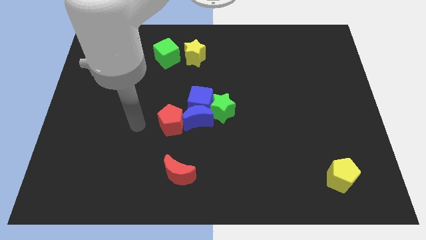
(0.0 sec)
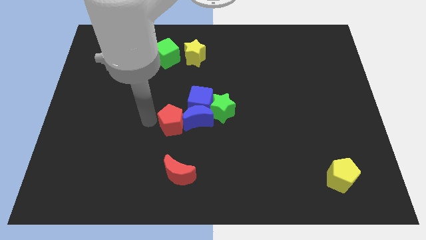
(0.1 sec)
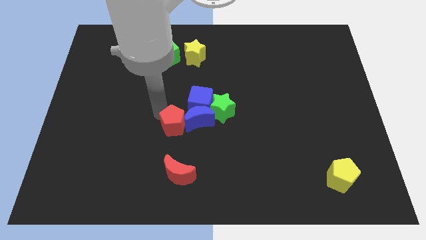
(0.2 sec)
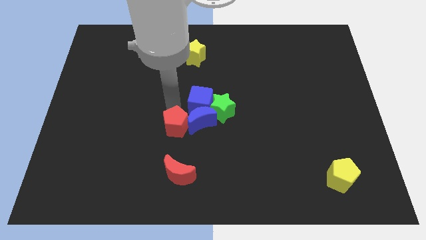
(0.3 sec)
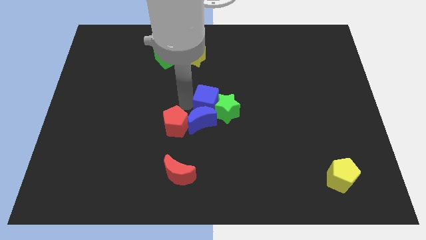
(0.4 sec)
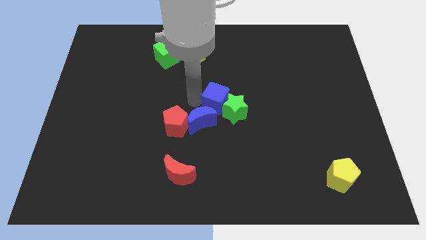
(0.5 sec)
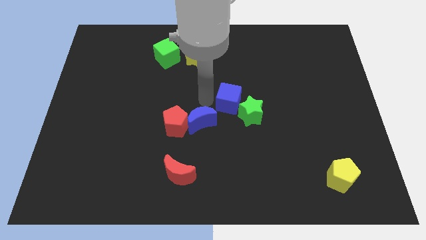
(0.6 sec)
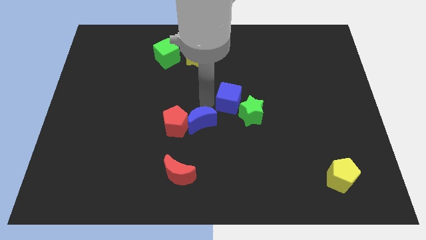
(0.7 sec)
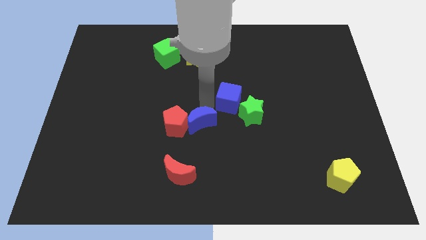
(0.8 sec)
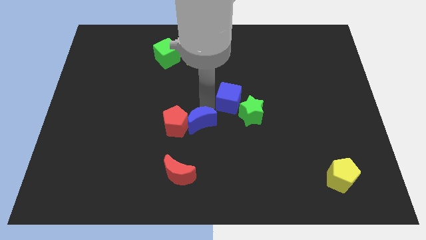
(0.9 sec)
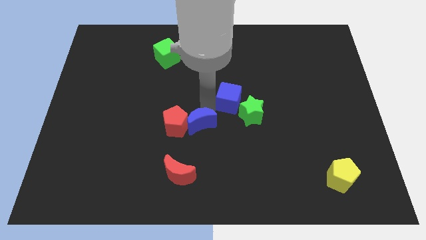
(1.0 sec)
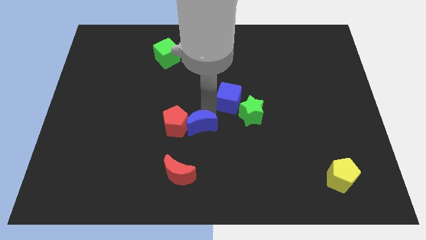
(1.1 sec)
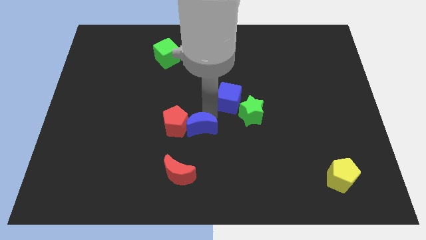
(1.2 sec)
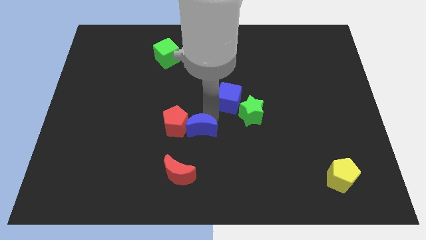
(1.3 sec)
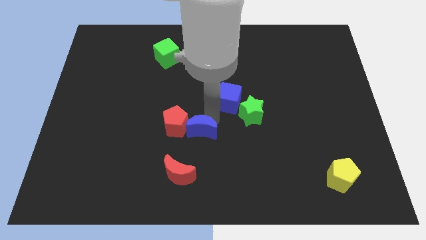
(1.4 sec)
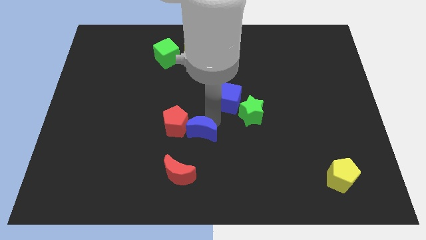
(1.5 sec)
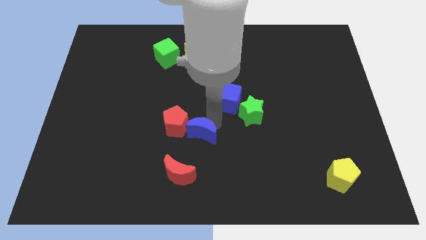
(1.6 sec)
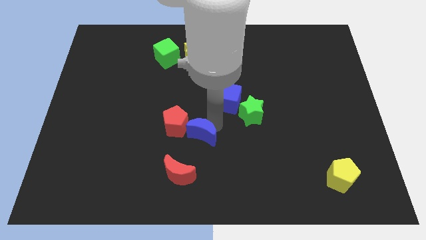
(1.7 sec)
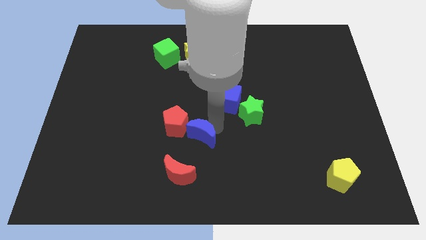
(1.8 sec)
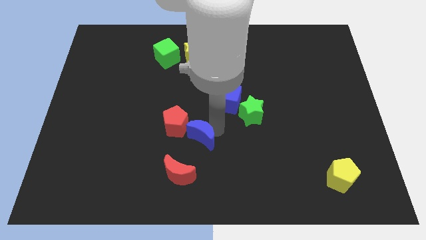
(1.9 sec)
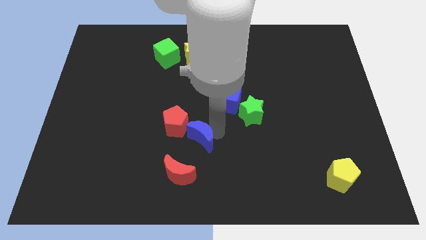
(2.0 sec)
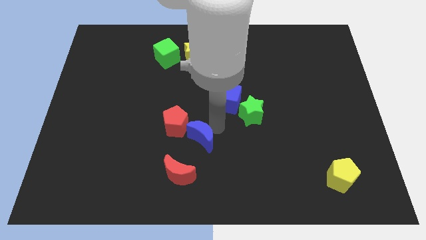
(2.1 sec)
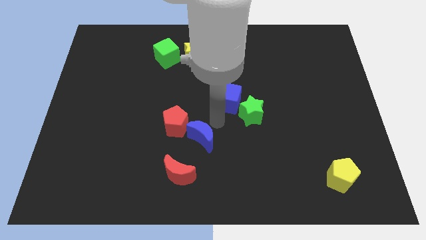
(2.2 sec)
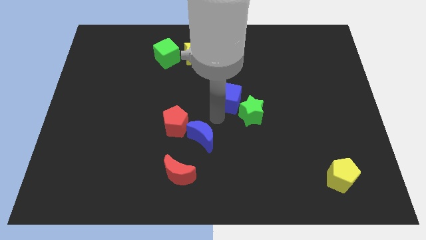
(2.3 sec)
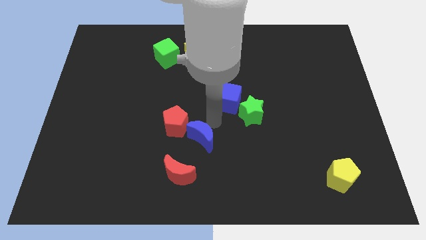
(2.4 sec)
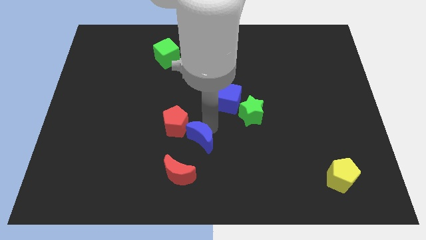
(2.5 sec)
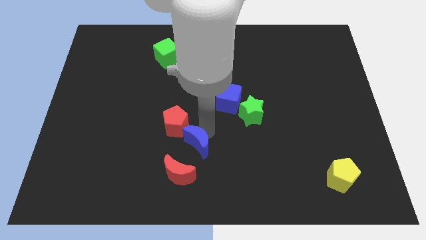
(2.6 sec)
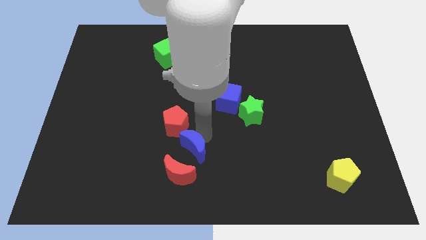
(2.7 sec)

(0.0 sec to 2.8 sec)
separate the blue moon from the group

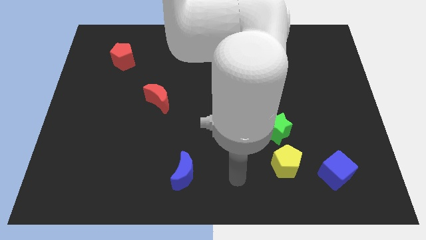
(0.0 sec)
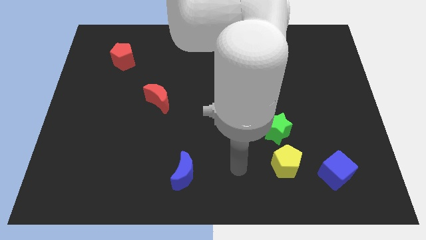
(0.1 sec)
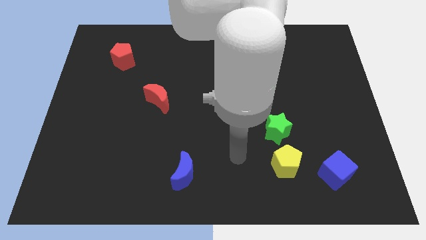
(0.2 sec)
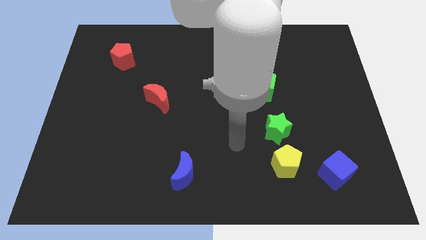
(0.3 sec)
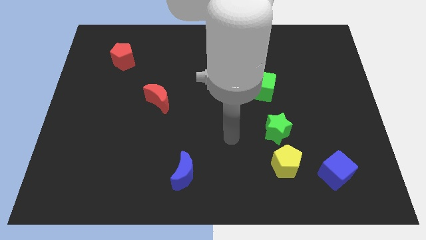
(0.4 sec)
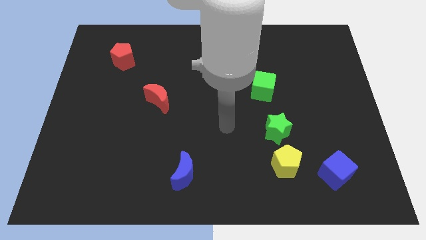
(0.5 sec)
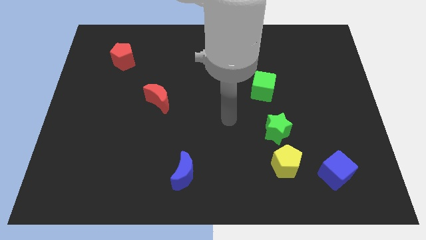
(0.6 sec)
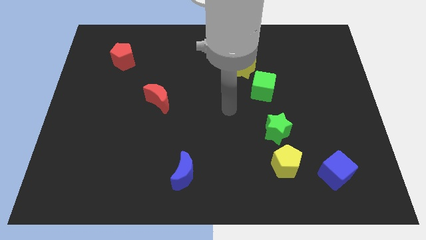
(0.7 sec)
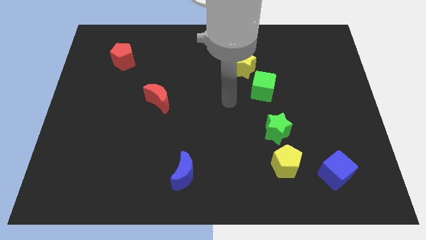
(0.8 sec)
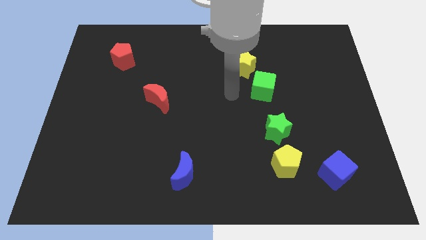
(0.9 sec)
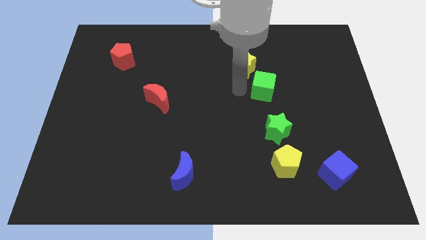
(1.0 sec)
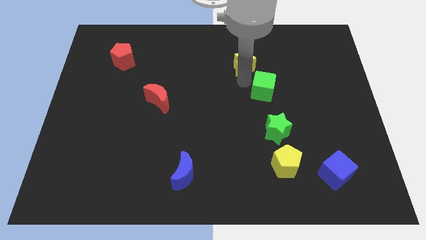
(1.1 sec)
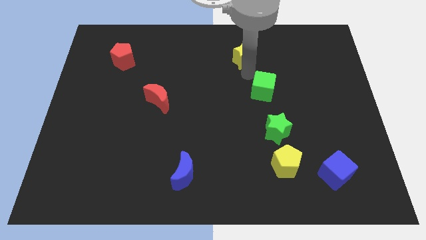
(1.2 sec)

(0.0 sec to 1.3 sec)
pull the green cube apart from the yellow star

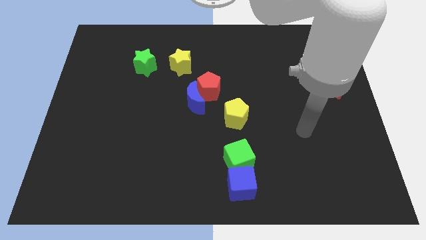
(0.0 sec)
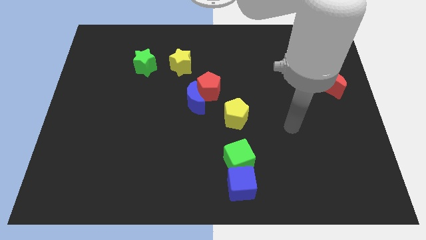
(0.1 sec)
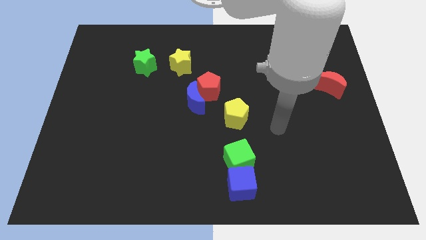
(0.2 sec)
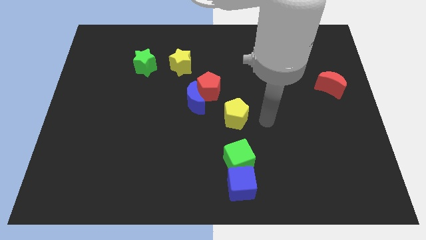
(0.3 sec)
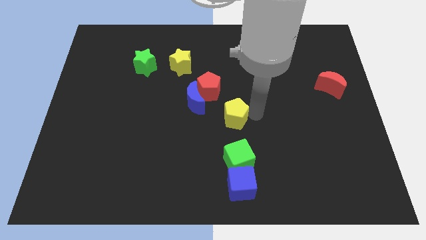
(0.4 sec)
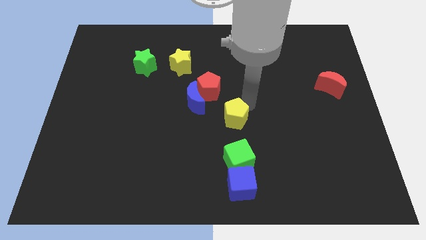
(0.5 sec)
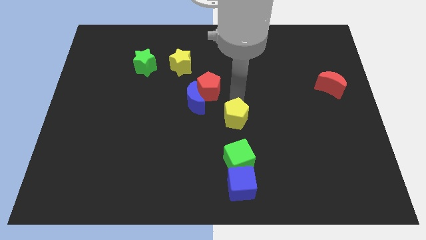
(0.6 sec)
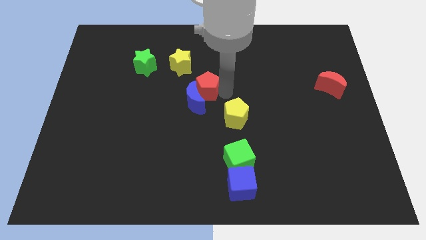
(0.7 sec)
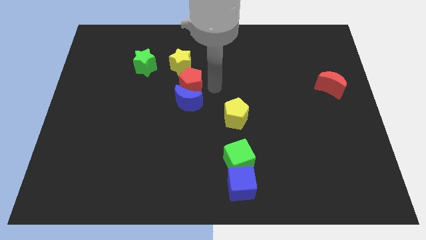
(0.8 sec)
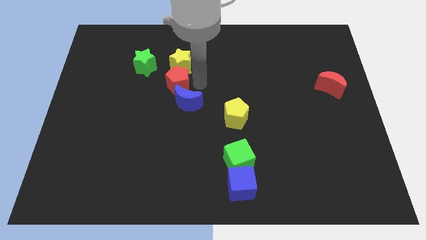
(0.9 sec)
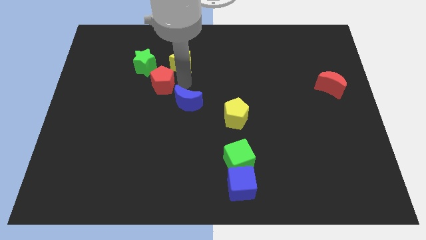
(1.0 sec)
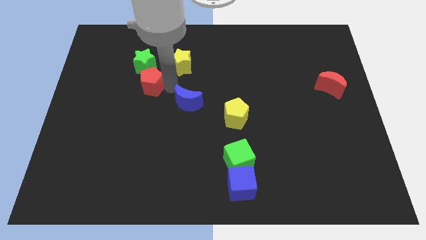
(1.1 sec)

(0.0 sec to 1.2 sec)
move the blue moon away from the red pentagon

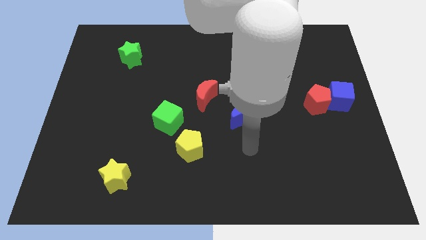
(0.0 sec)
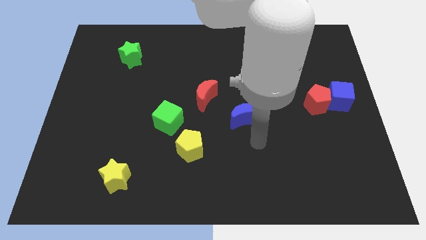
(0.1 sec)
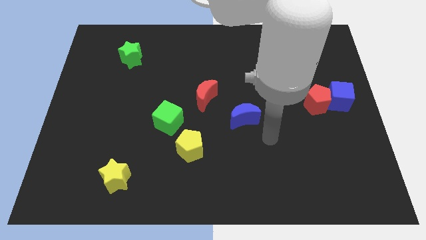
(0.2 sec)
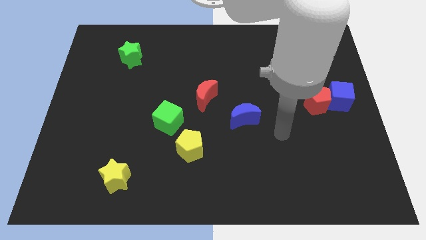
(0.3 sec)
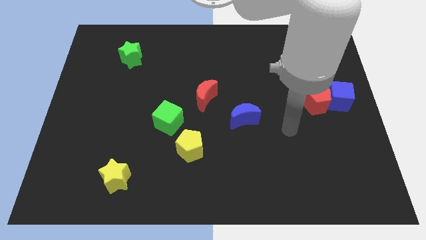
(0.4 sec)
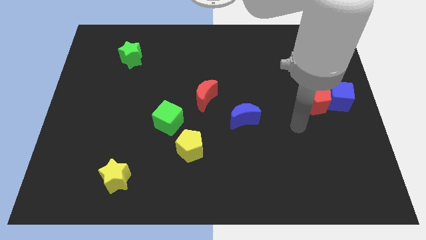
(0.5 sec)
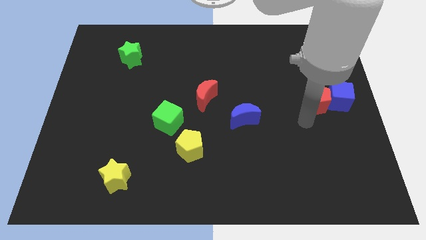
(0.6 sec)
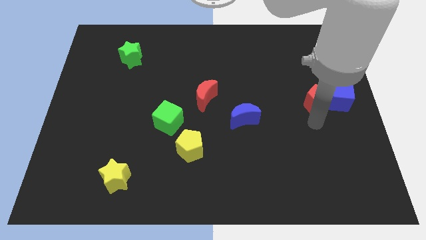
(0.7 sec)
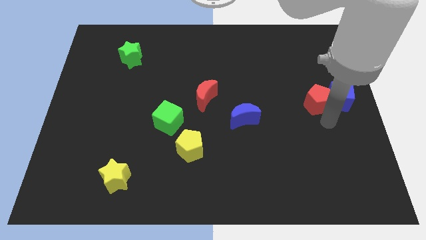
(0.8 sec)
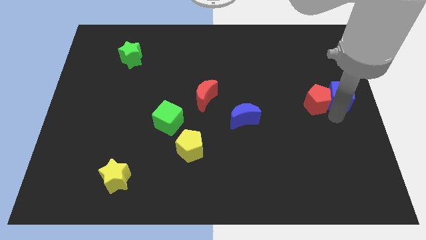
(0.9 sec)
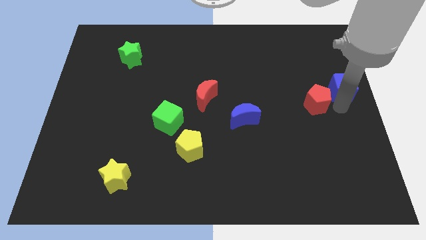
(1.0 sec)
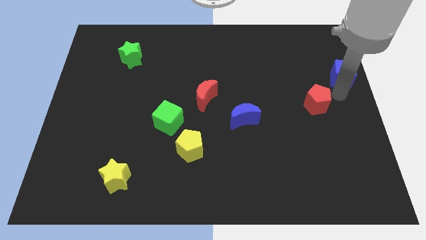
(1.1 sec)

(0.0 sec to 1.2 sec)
move the red pentagon away from the blue cube

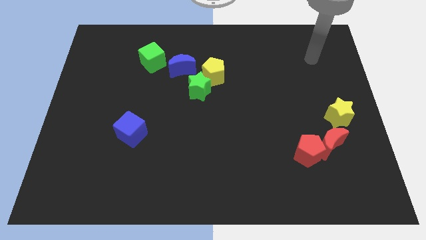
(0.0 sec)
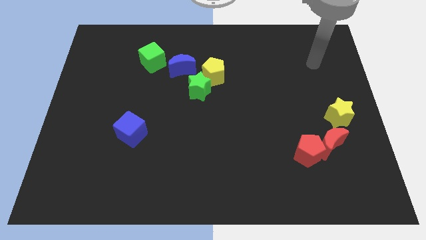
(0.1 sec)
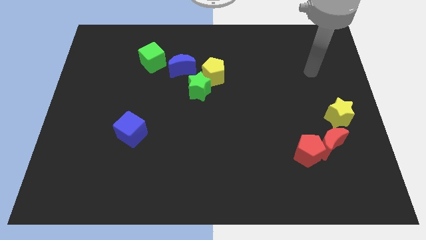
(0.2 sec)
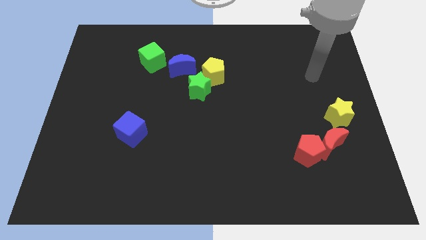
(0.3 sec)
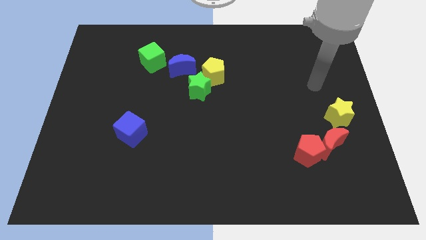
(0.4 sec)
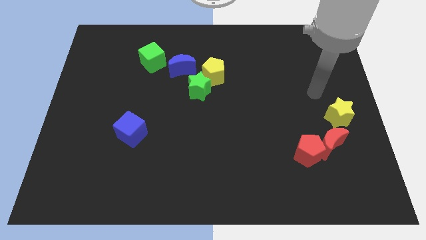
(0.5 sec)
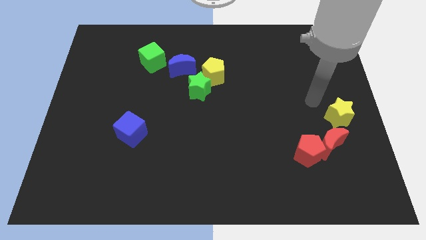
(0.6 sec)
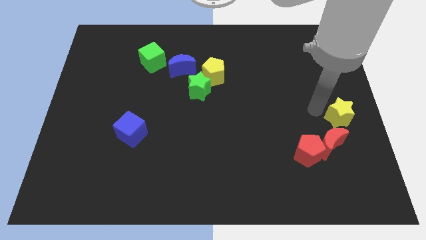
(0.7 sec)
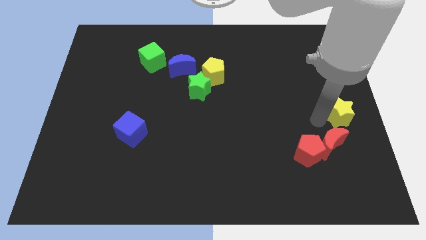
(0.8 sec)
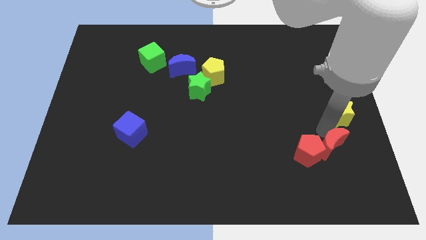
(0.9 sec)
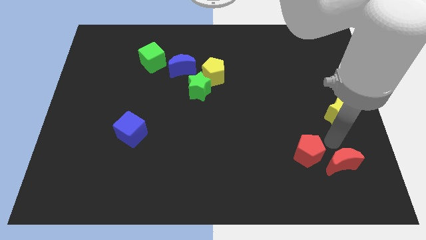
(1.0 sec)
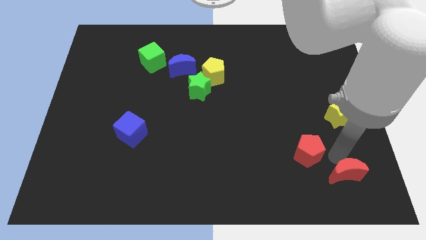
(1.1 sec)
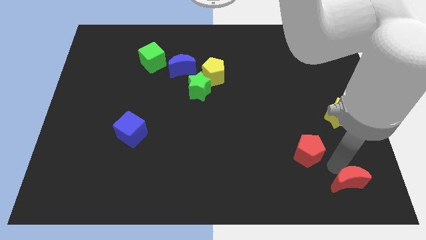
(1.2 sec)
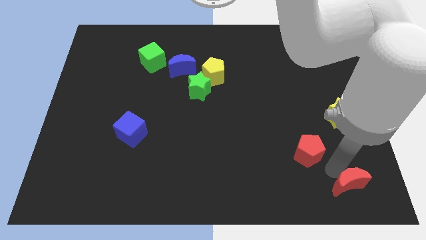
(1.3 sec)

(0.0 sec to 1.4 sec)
separate the red pentagon from the red moon

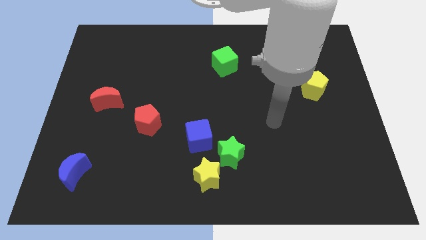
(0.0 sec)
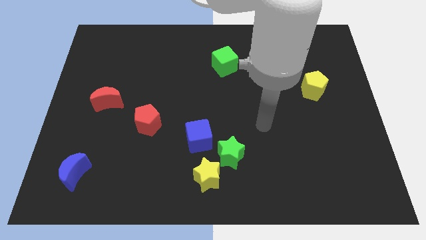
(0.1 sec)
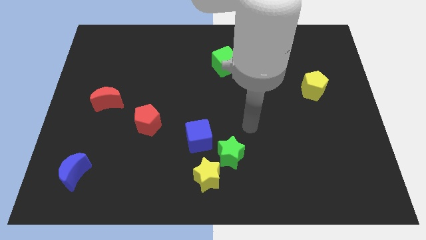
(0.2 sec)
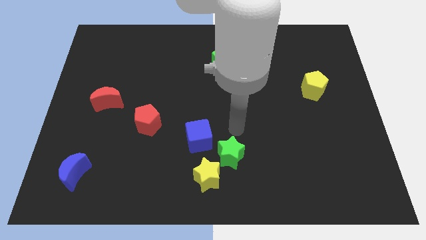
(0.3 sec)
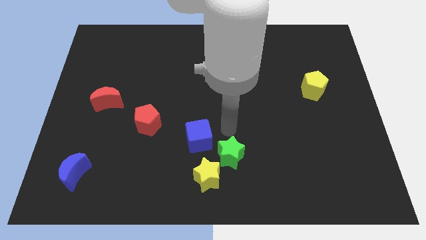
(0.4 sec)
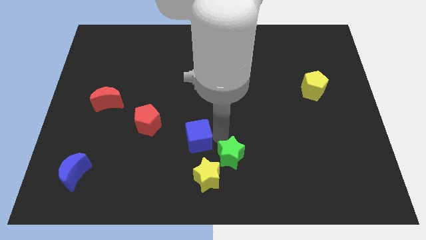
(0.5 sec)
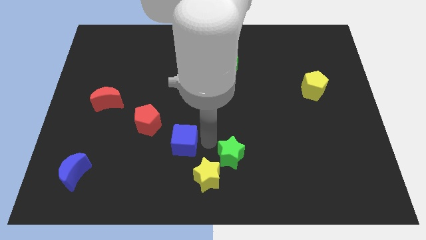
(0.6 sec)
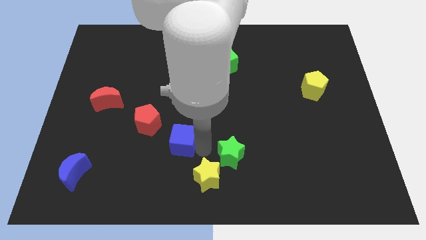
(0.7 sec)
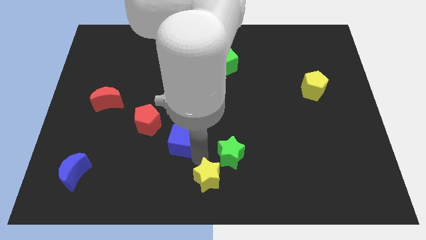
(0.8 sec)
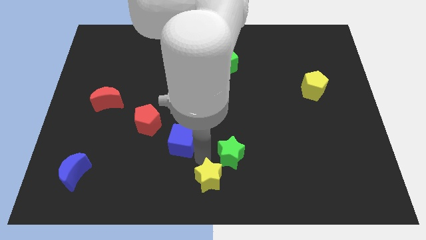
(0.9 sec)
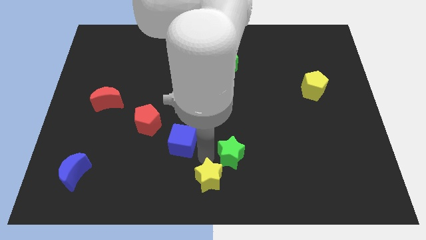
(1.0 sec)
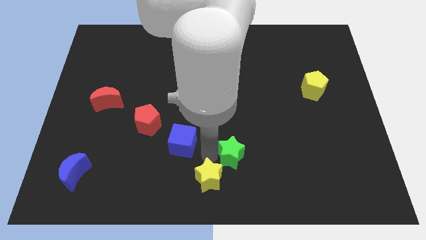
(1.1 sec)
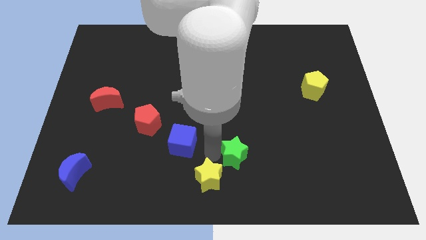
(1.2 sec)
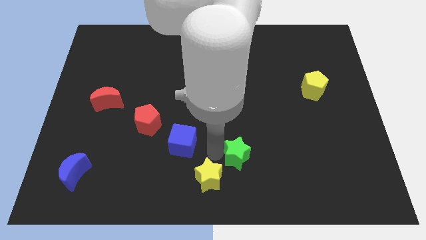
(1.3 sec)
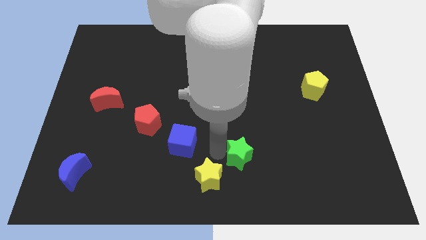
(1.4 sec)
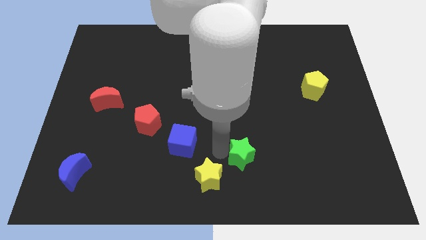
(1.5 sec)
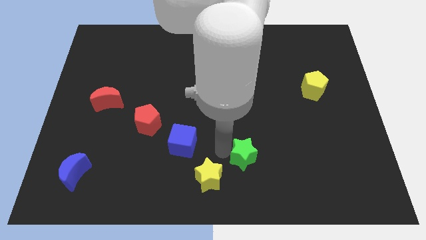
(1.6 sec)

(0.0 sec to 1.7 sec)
pull the green star apart from the yellow star and blue cube
